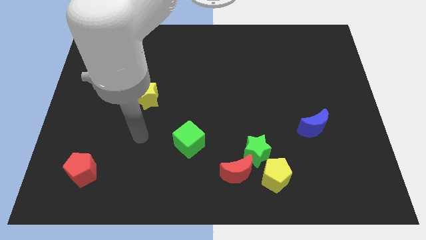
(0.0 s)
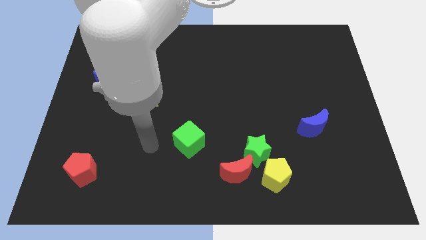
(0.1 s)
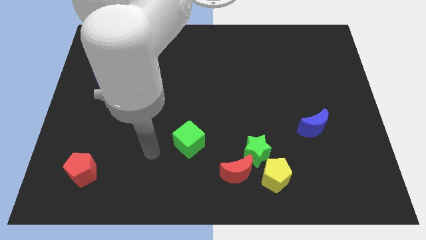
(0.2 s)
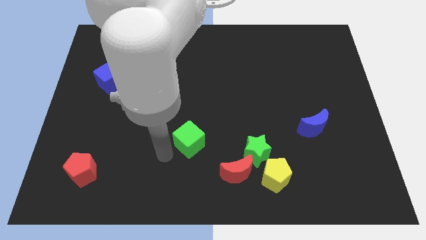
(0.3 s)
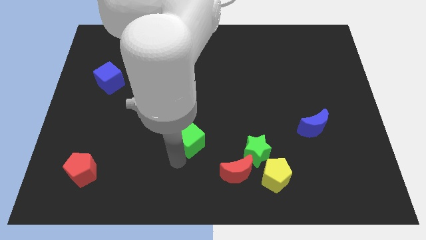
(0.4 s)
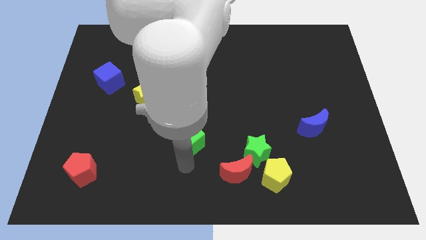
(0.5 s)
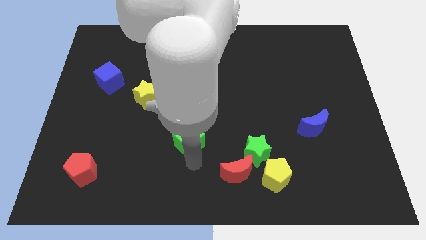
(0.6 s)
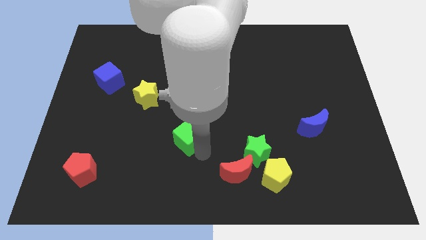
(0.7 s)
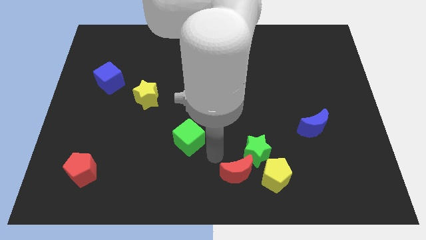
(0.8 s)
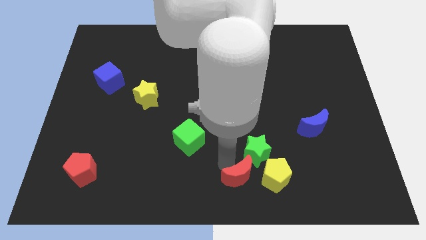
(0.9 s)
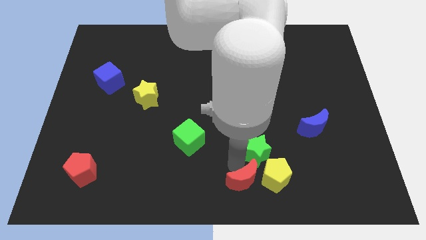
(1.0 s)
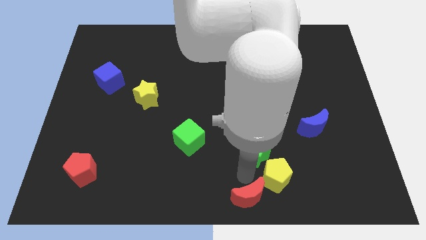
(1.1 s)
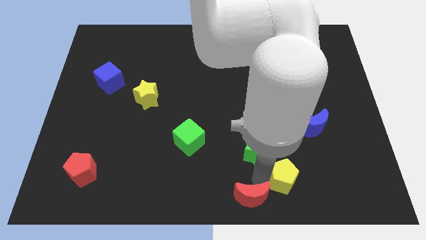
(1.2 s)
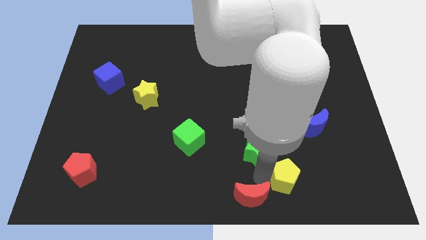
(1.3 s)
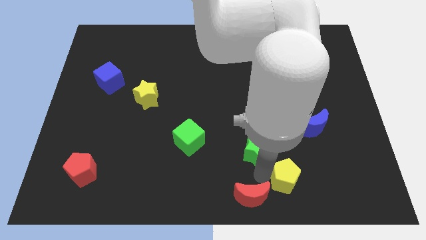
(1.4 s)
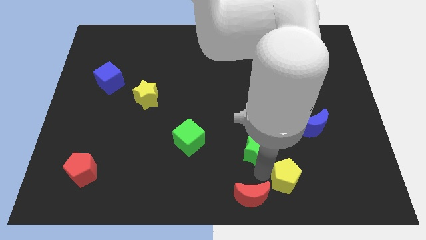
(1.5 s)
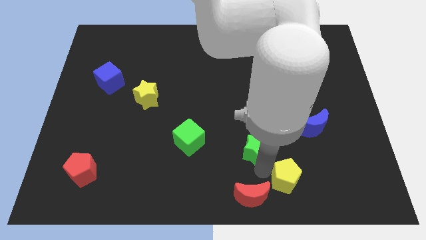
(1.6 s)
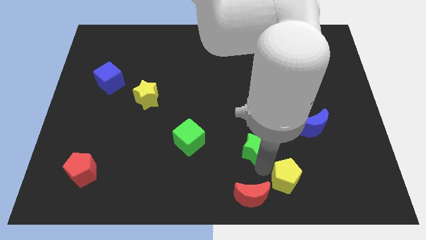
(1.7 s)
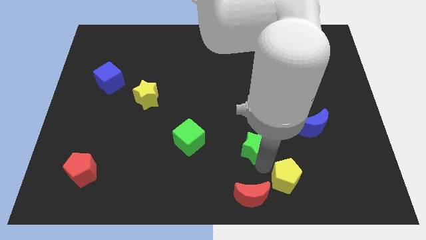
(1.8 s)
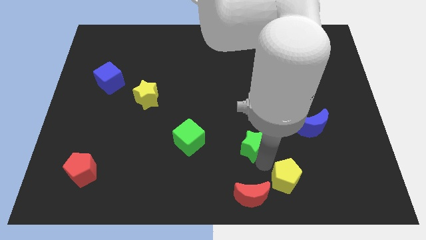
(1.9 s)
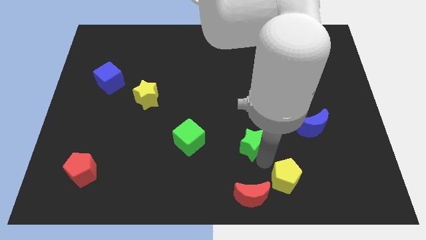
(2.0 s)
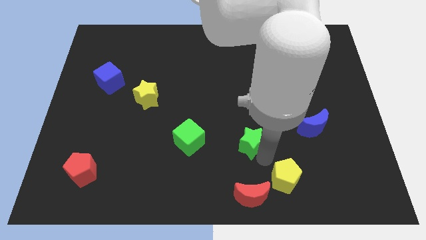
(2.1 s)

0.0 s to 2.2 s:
move the green star away from the yellow pentagon and red moon

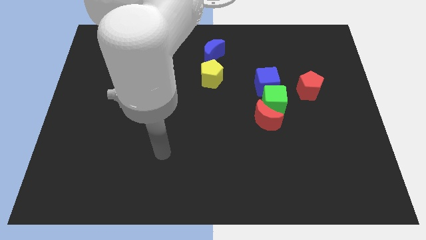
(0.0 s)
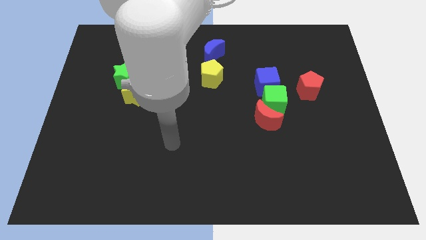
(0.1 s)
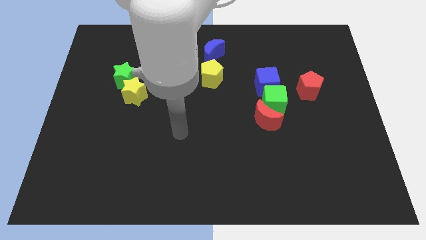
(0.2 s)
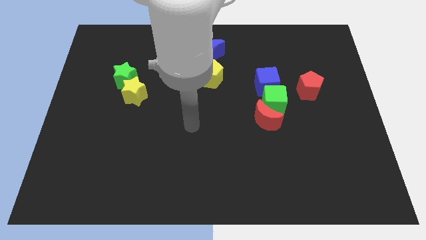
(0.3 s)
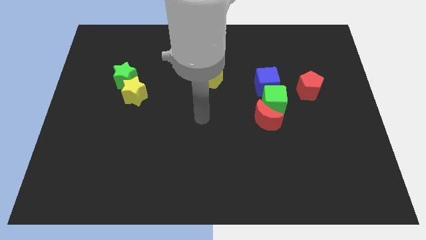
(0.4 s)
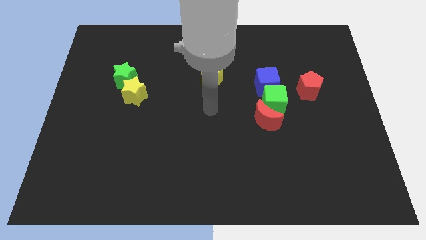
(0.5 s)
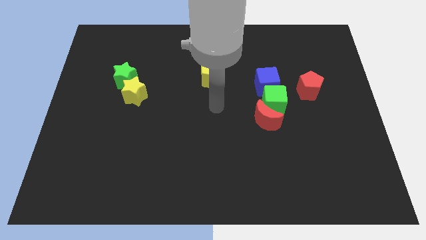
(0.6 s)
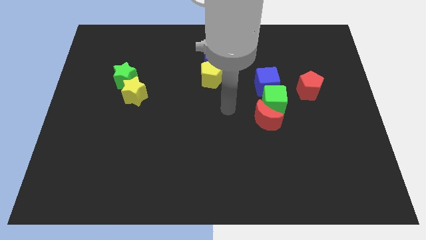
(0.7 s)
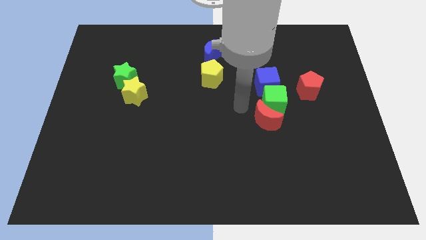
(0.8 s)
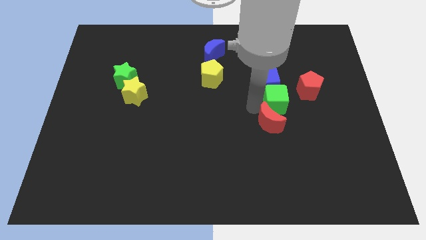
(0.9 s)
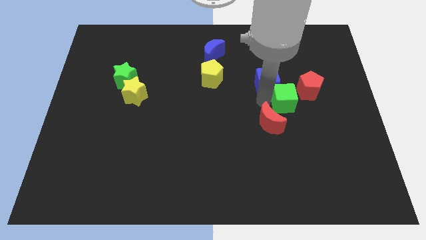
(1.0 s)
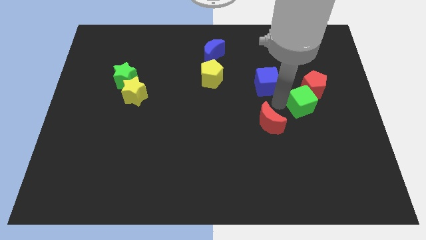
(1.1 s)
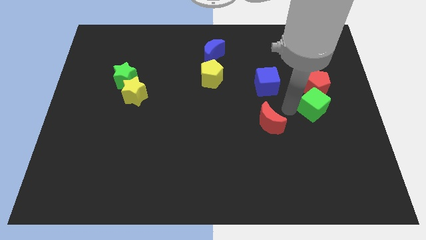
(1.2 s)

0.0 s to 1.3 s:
move the red moon away from the green cube

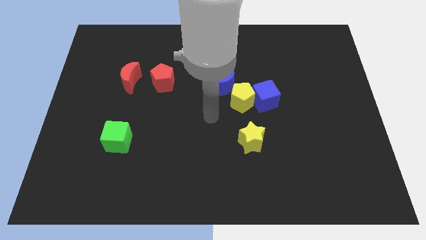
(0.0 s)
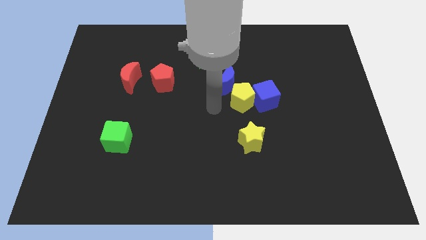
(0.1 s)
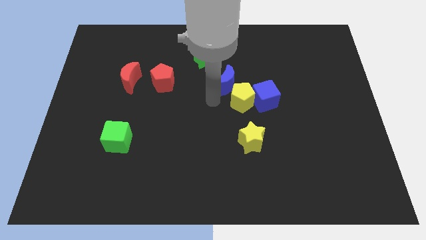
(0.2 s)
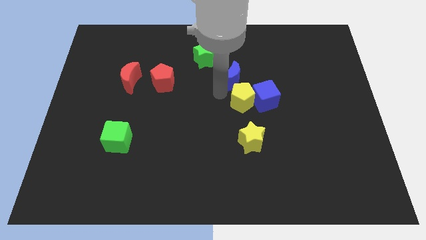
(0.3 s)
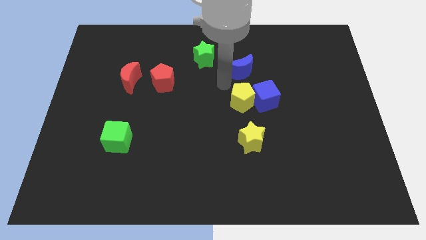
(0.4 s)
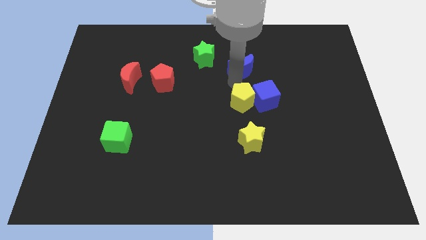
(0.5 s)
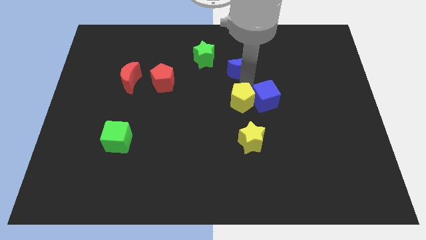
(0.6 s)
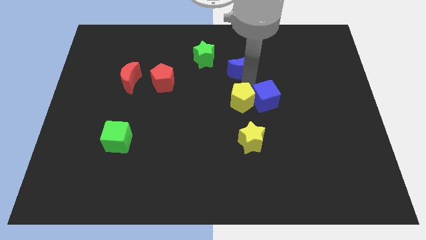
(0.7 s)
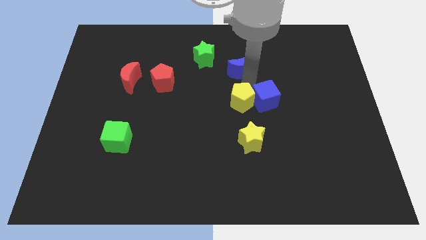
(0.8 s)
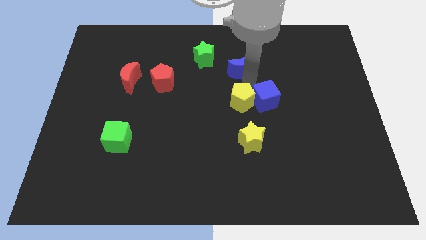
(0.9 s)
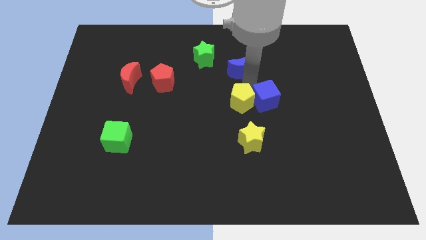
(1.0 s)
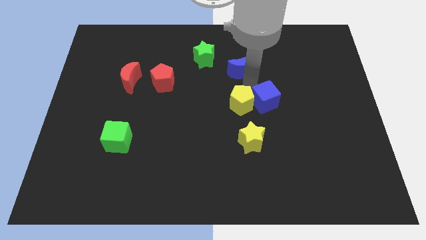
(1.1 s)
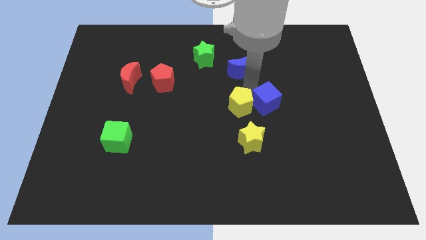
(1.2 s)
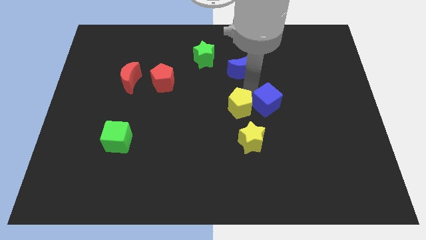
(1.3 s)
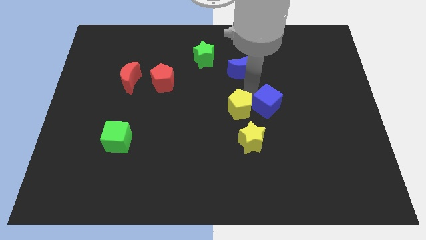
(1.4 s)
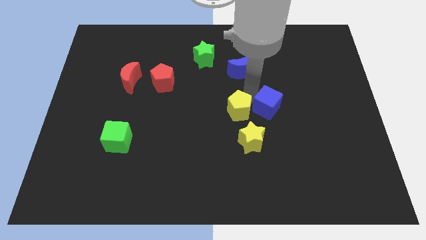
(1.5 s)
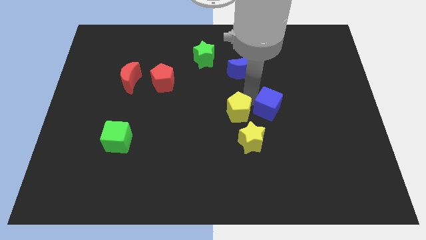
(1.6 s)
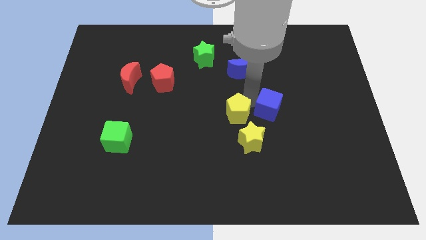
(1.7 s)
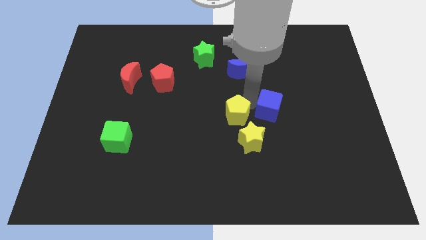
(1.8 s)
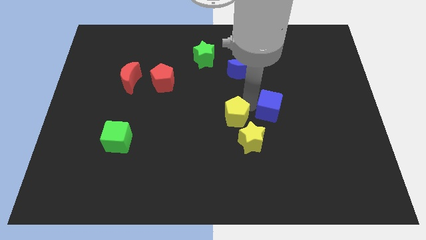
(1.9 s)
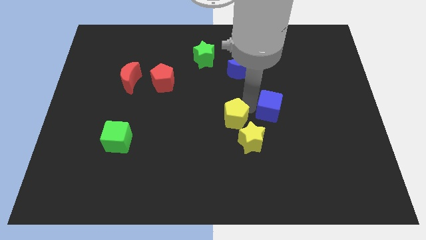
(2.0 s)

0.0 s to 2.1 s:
pull the yellow pentagon apart from the blue cube and blue moon

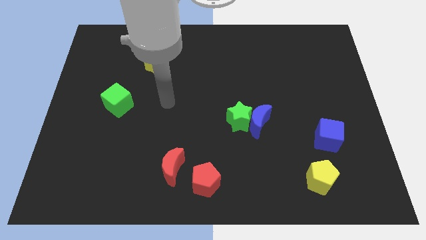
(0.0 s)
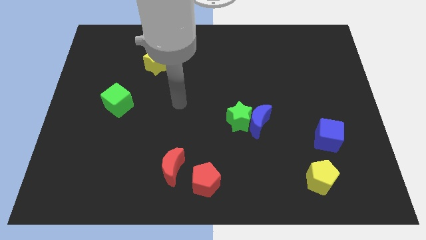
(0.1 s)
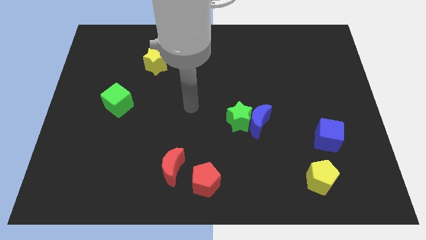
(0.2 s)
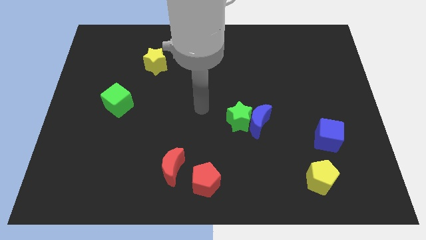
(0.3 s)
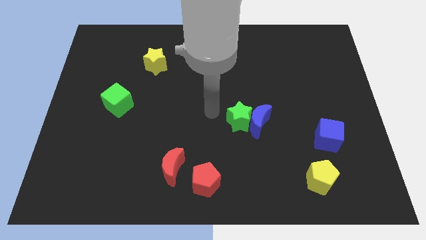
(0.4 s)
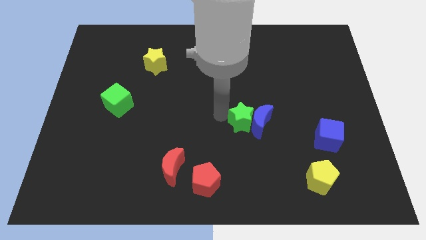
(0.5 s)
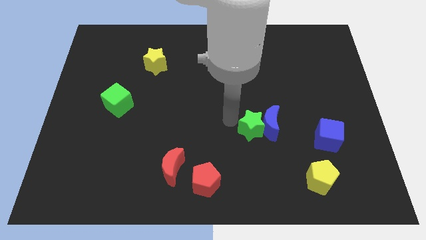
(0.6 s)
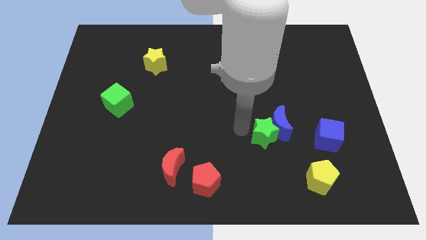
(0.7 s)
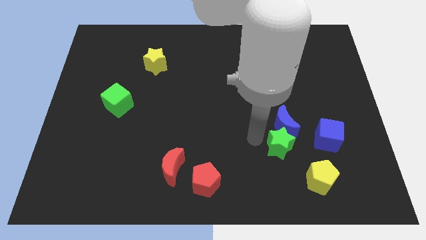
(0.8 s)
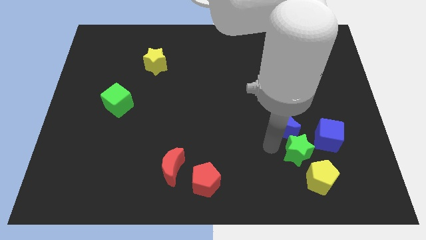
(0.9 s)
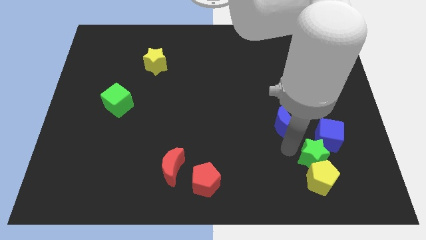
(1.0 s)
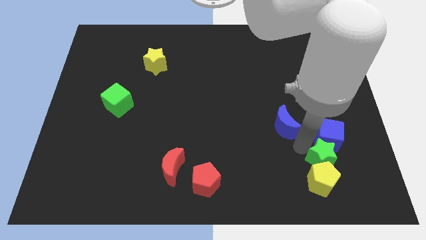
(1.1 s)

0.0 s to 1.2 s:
move the blue moon away from the green star

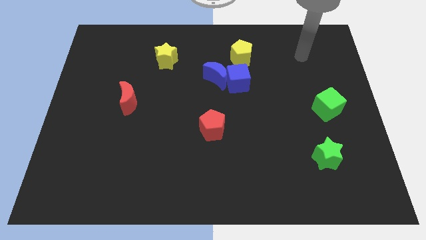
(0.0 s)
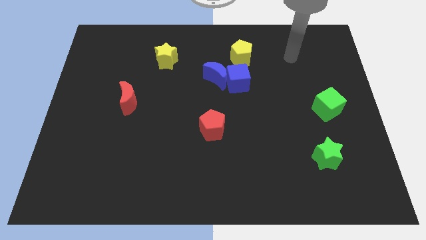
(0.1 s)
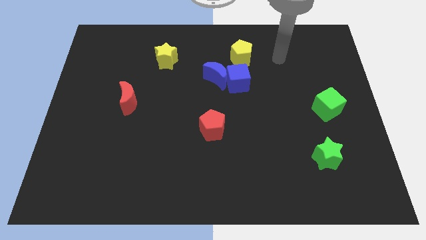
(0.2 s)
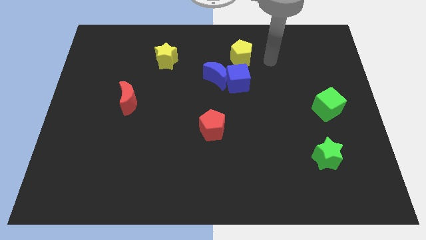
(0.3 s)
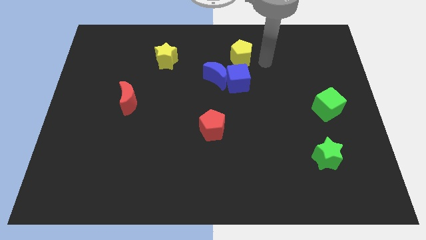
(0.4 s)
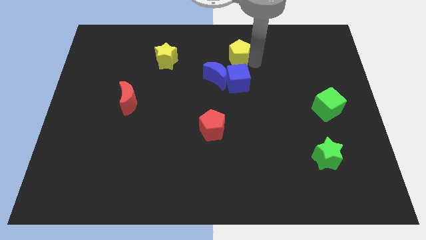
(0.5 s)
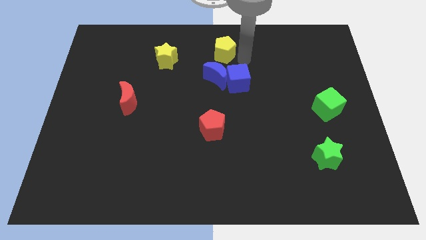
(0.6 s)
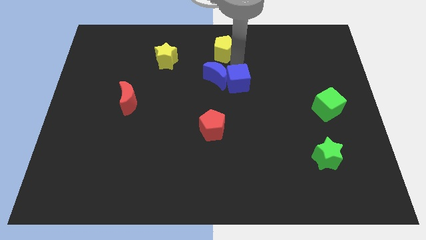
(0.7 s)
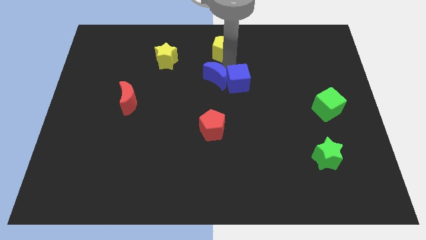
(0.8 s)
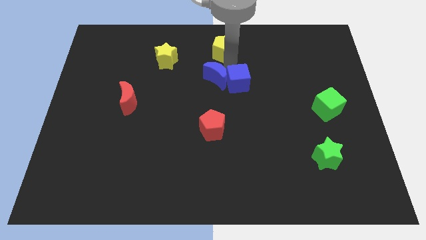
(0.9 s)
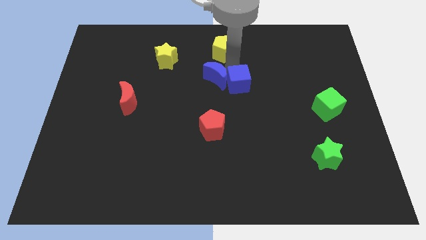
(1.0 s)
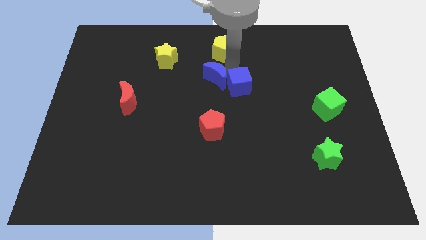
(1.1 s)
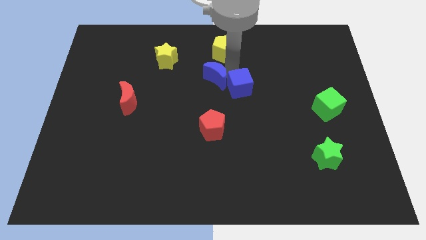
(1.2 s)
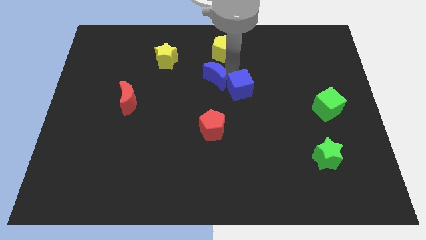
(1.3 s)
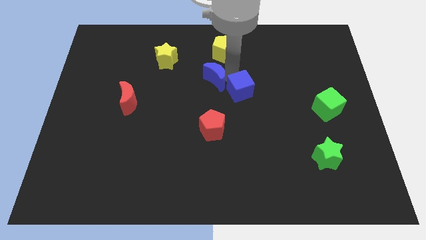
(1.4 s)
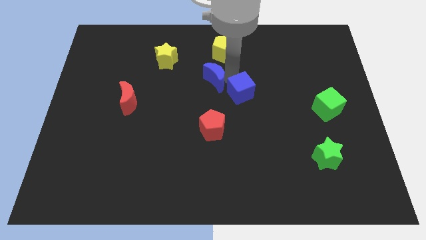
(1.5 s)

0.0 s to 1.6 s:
move the blue cube away from the blue moon and yellow pentagon

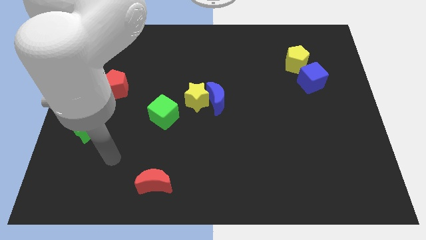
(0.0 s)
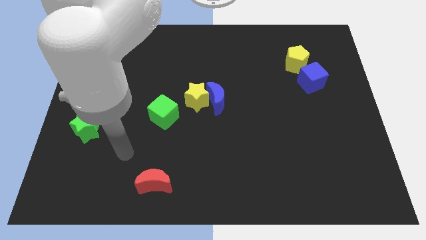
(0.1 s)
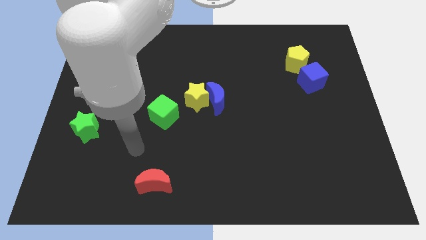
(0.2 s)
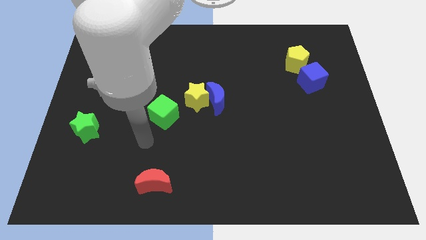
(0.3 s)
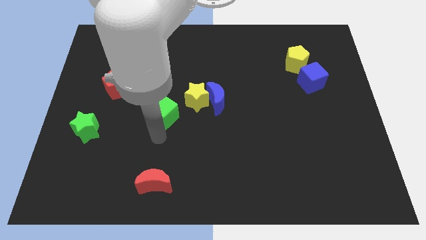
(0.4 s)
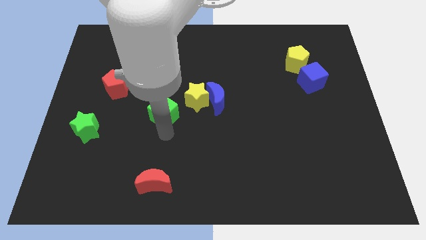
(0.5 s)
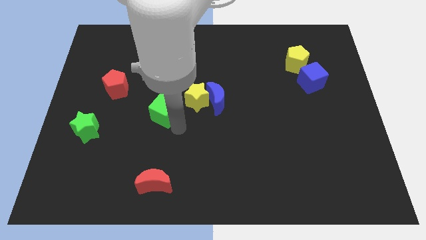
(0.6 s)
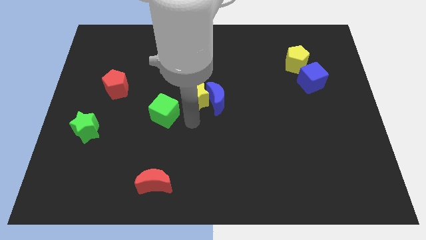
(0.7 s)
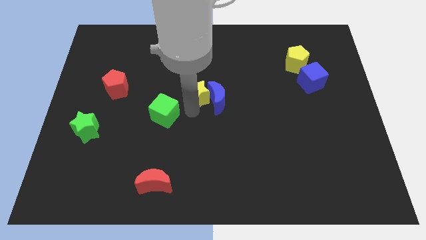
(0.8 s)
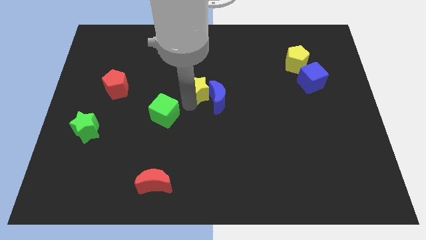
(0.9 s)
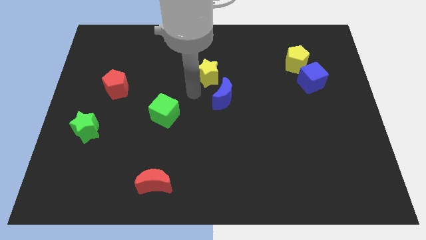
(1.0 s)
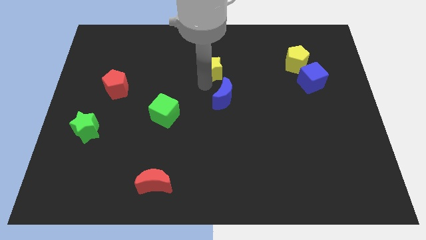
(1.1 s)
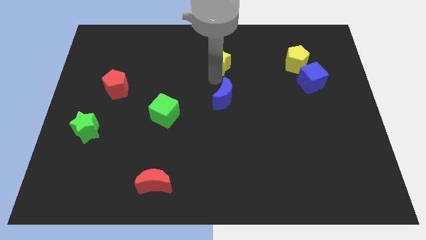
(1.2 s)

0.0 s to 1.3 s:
separate the blue moon from the yellow star
